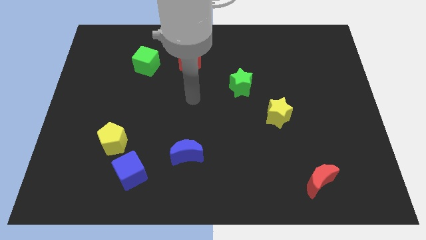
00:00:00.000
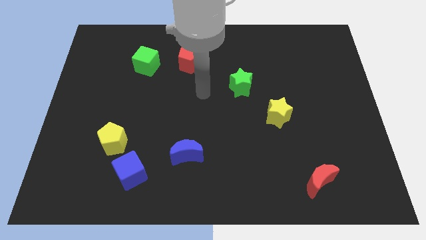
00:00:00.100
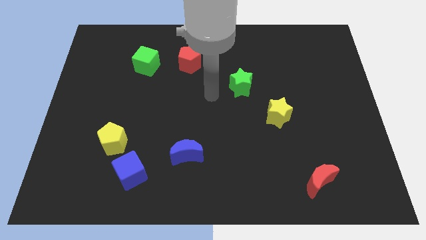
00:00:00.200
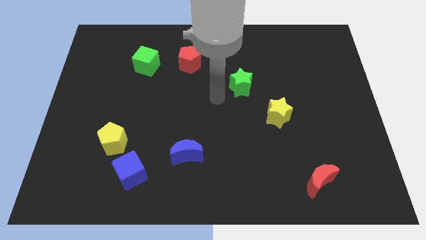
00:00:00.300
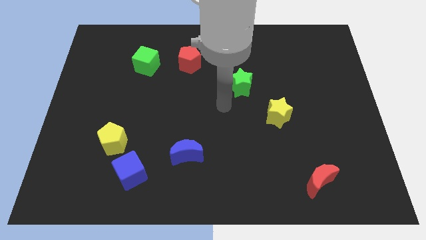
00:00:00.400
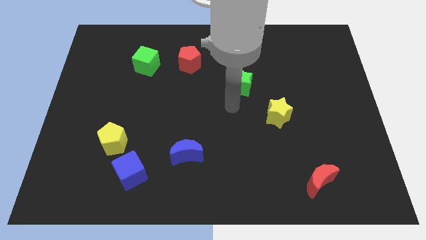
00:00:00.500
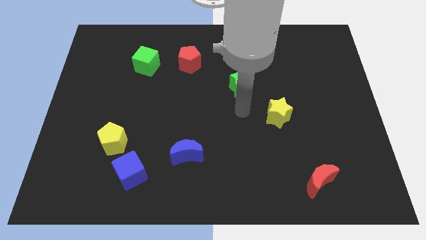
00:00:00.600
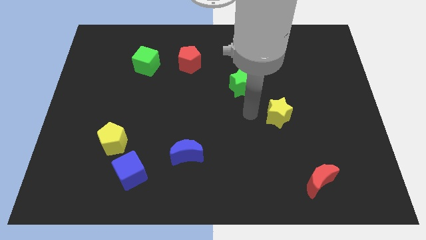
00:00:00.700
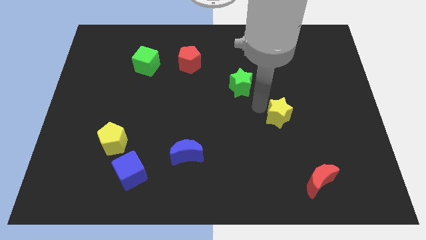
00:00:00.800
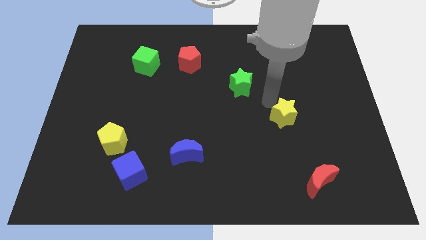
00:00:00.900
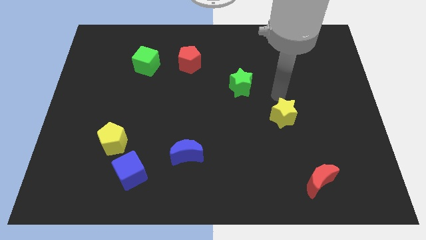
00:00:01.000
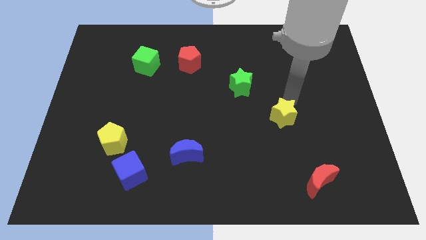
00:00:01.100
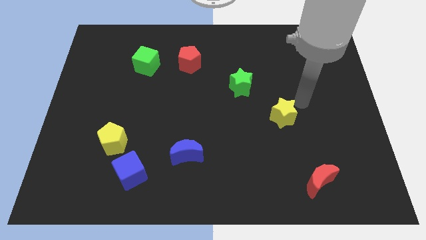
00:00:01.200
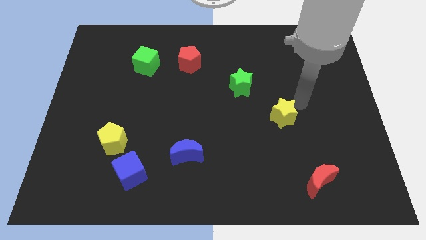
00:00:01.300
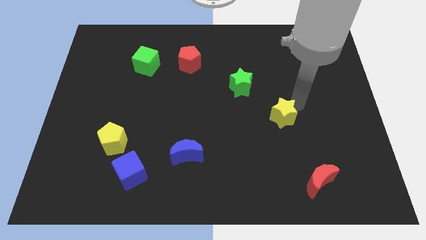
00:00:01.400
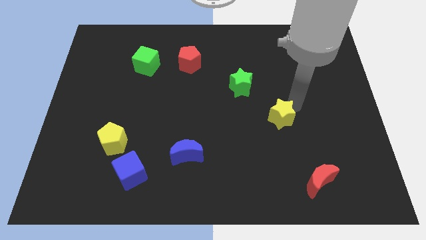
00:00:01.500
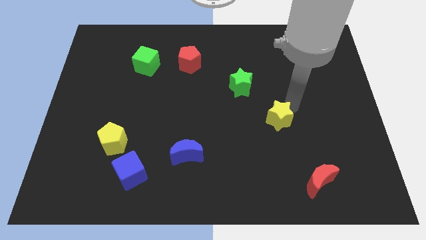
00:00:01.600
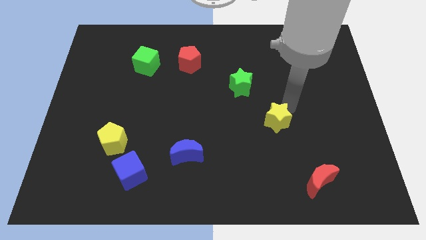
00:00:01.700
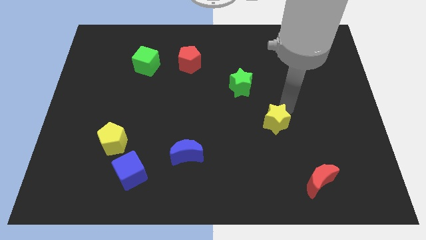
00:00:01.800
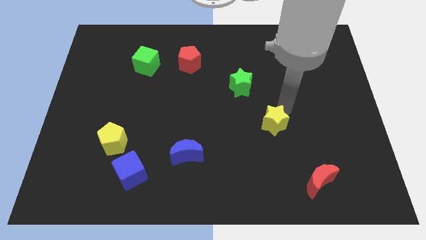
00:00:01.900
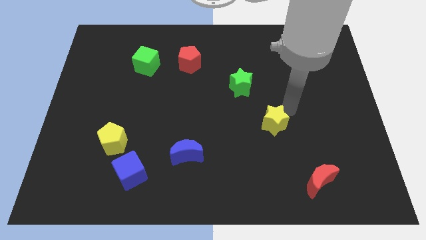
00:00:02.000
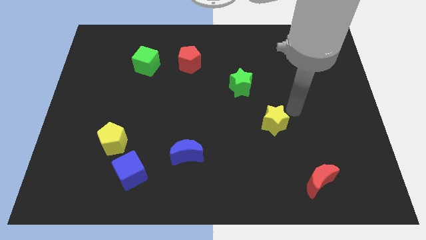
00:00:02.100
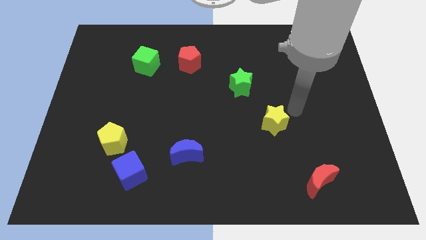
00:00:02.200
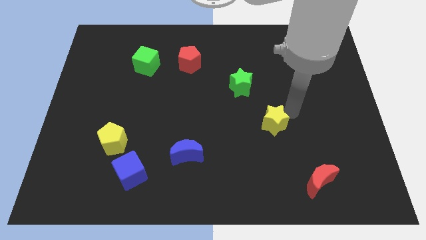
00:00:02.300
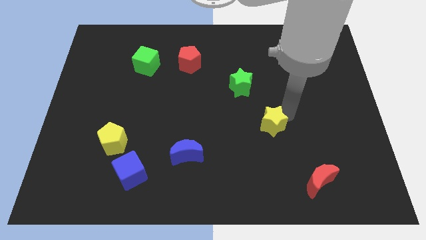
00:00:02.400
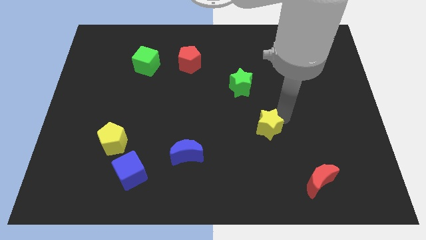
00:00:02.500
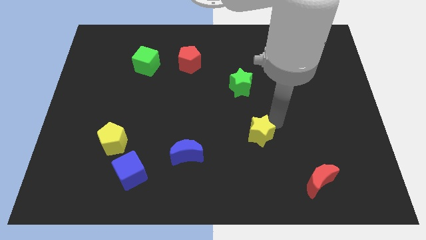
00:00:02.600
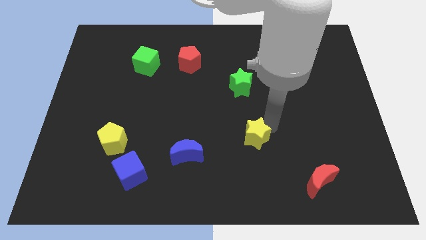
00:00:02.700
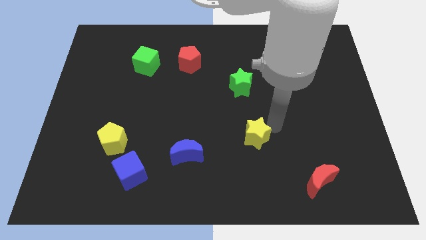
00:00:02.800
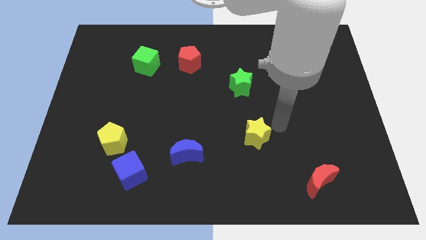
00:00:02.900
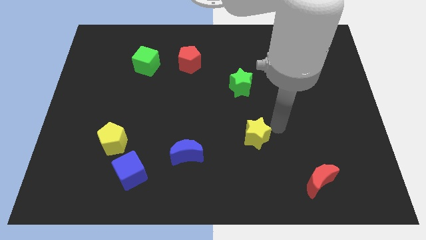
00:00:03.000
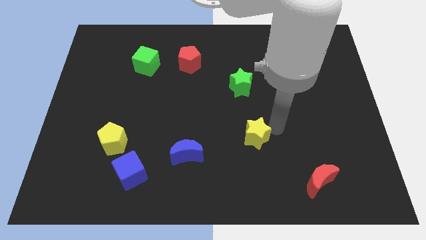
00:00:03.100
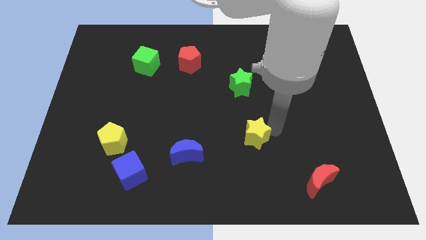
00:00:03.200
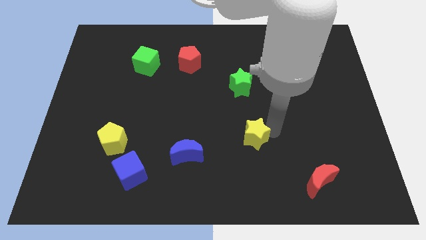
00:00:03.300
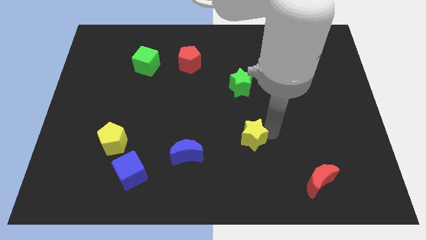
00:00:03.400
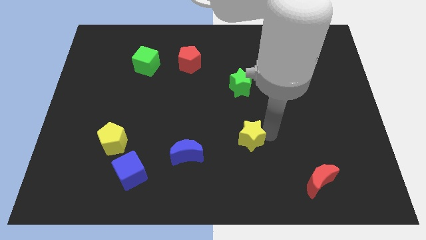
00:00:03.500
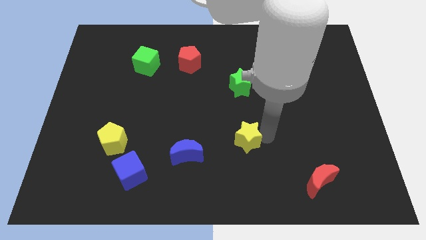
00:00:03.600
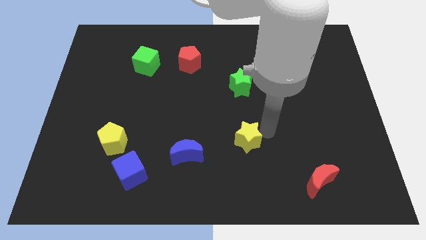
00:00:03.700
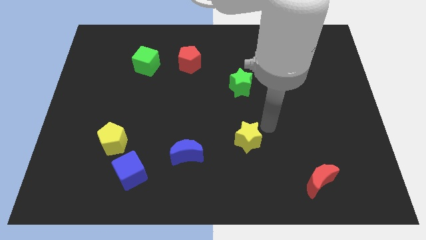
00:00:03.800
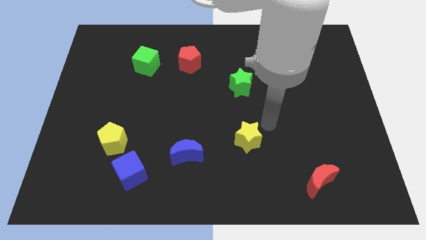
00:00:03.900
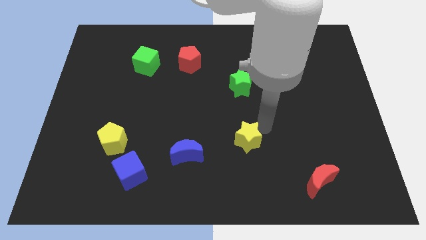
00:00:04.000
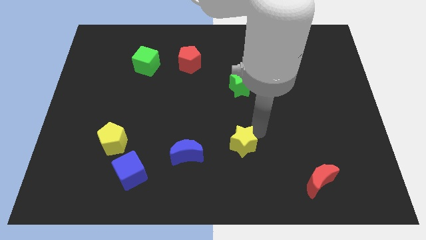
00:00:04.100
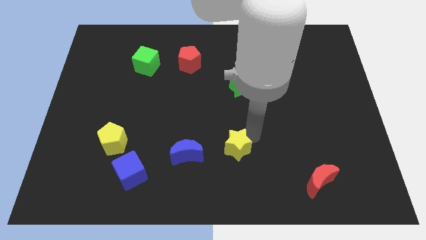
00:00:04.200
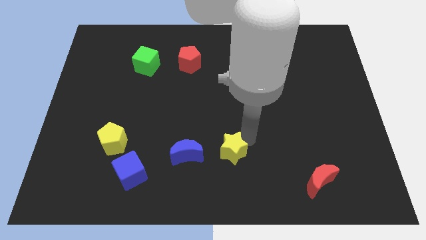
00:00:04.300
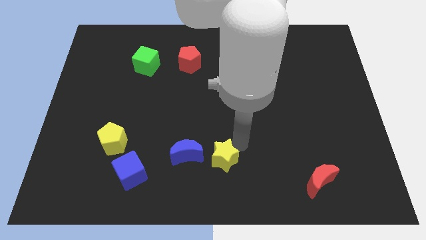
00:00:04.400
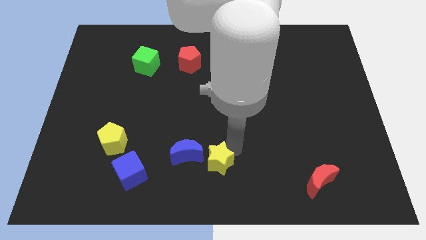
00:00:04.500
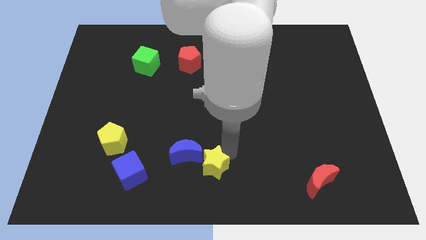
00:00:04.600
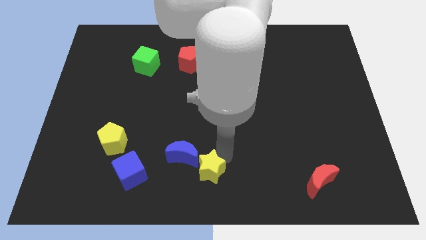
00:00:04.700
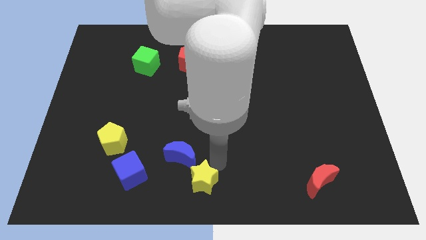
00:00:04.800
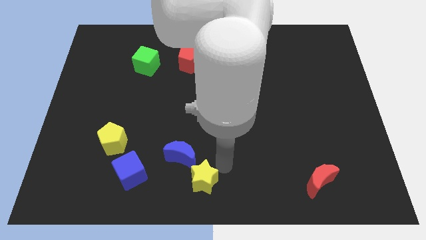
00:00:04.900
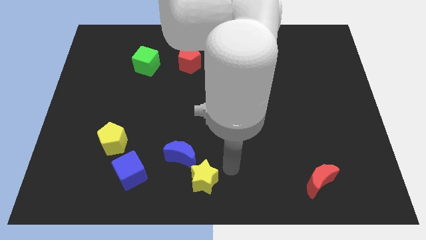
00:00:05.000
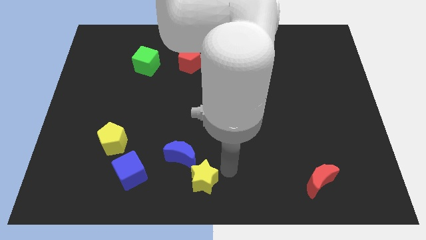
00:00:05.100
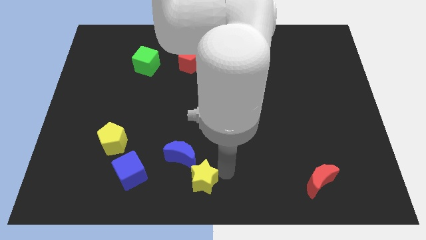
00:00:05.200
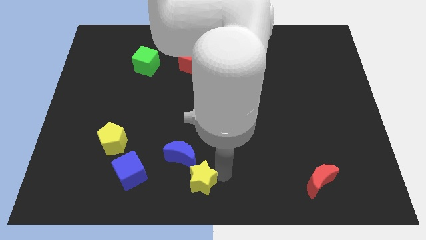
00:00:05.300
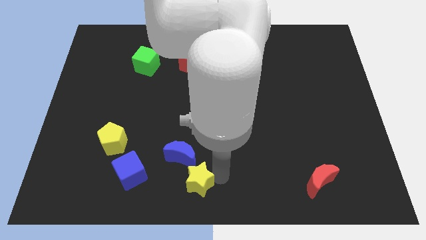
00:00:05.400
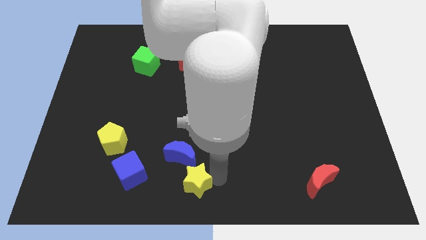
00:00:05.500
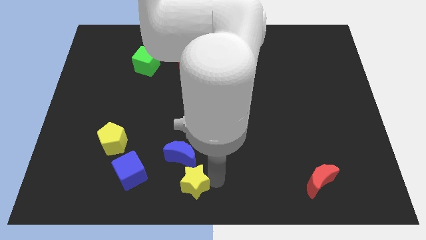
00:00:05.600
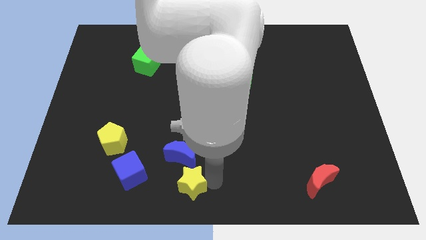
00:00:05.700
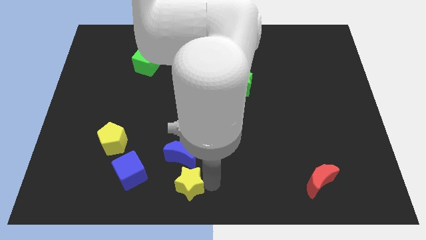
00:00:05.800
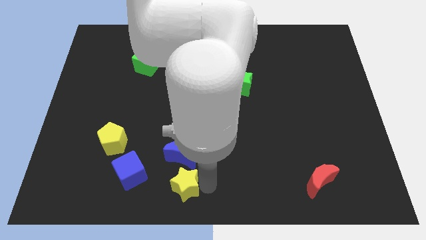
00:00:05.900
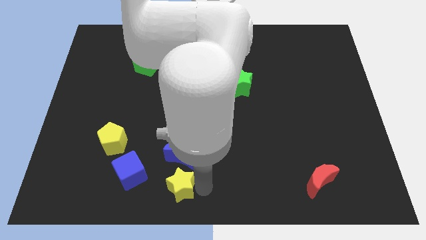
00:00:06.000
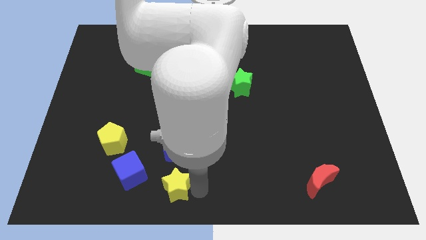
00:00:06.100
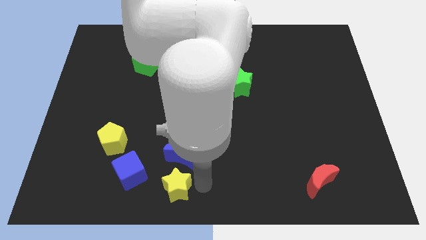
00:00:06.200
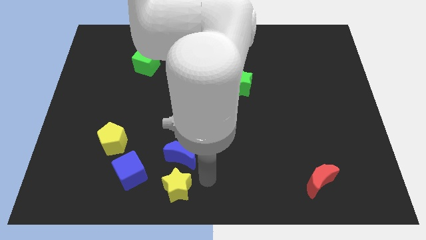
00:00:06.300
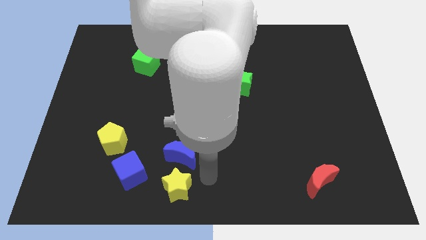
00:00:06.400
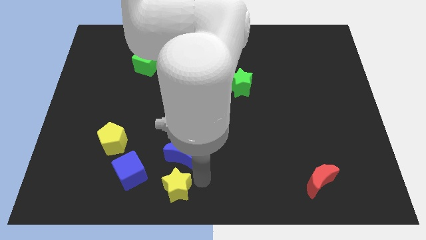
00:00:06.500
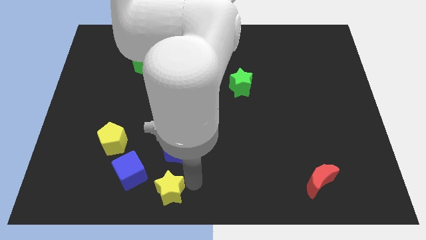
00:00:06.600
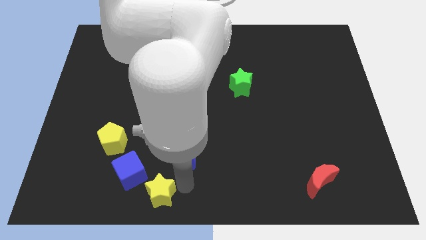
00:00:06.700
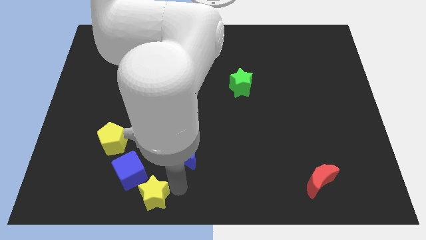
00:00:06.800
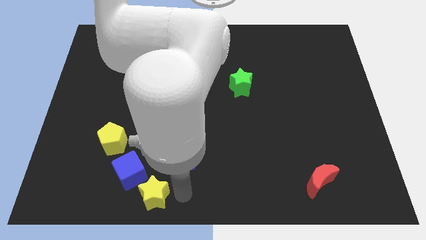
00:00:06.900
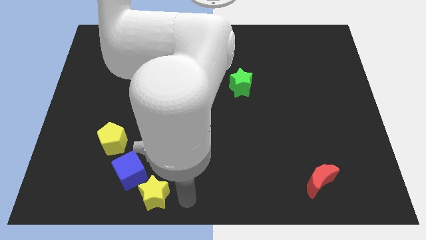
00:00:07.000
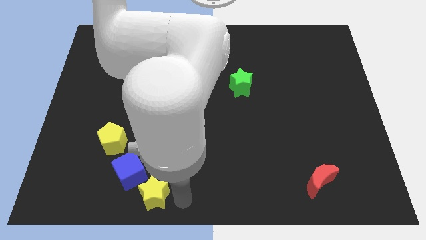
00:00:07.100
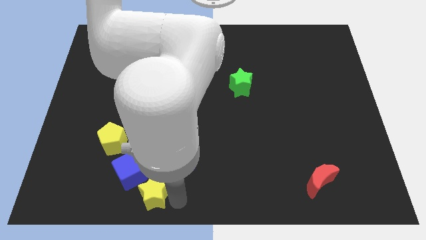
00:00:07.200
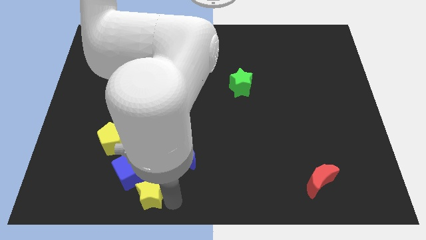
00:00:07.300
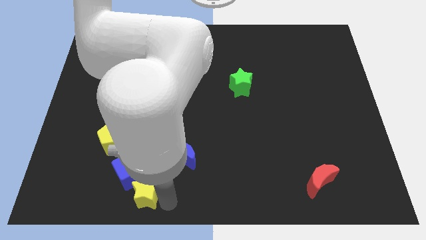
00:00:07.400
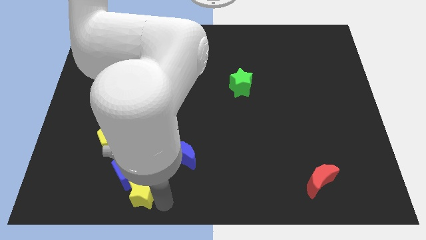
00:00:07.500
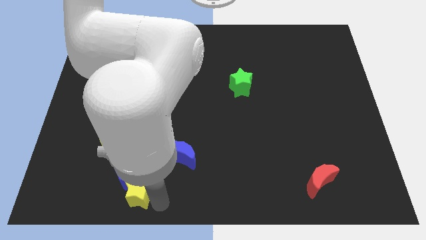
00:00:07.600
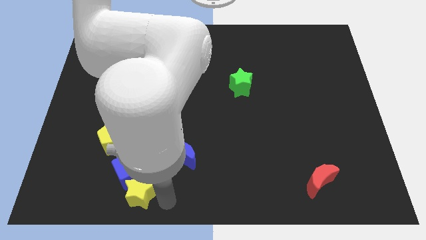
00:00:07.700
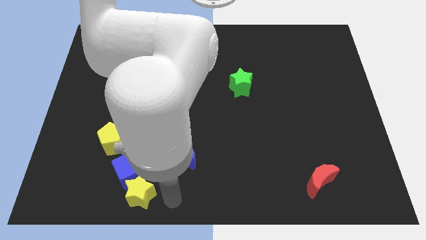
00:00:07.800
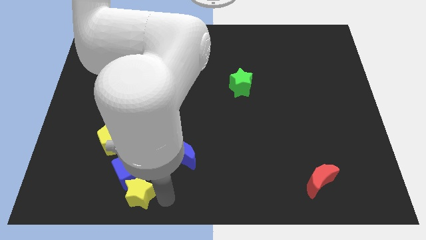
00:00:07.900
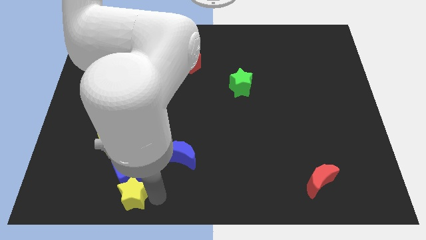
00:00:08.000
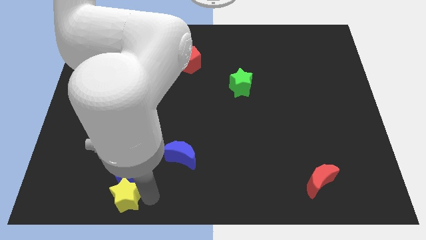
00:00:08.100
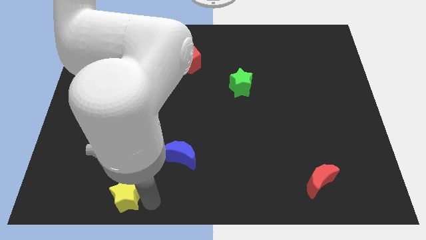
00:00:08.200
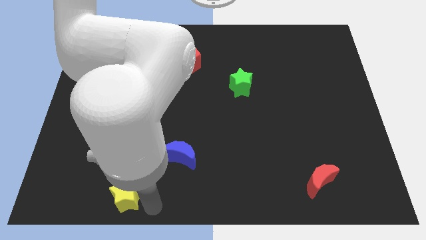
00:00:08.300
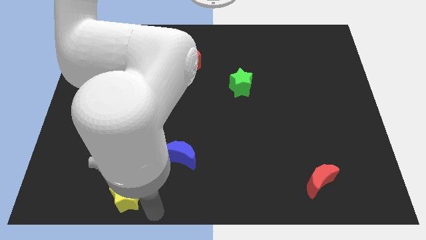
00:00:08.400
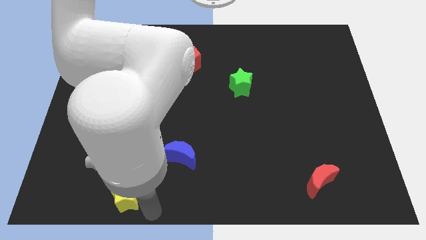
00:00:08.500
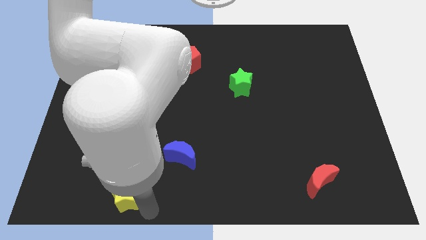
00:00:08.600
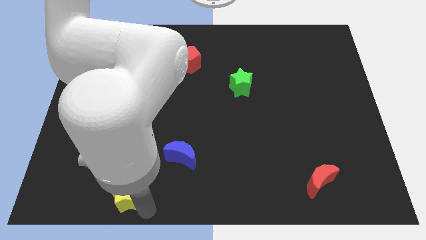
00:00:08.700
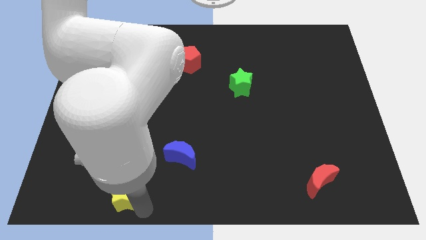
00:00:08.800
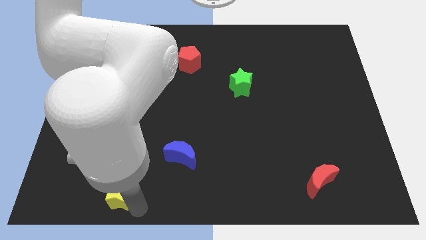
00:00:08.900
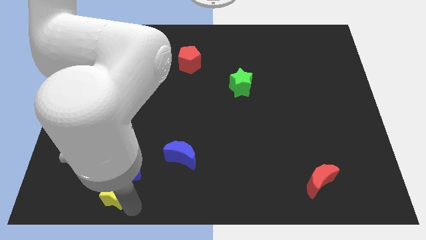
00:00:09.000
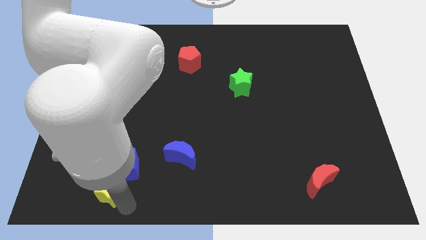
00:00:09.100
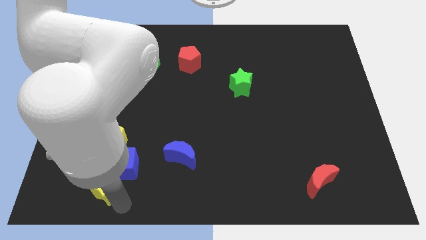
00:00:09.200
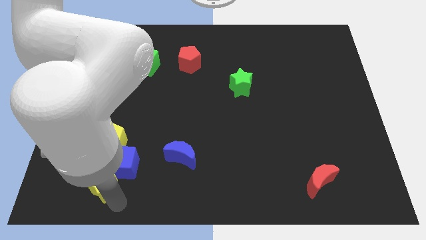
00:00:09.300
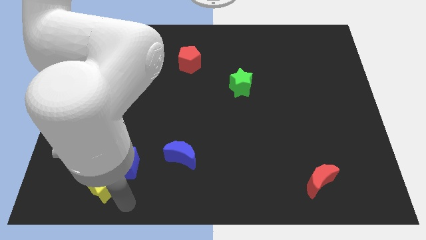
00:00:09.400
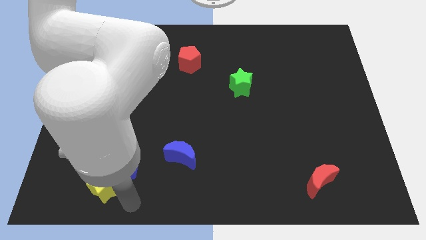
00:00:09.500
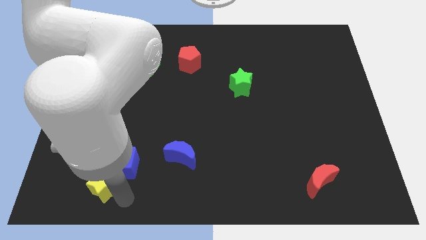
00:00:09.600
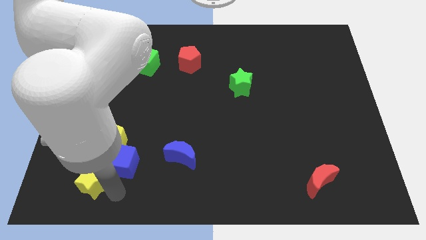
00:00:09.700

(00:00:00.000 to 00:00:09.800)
move the yellow star to the left of the blue cube
